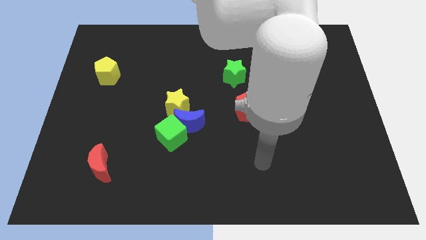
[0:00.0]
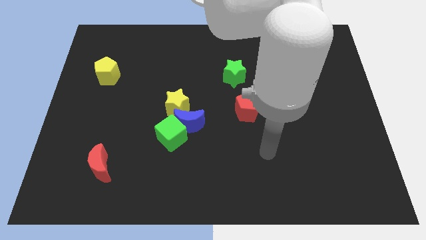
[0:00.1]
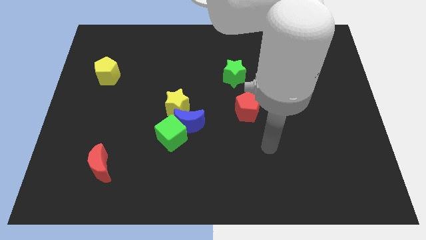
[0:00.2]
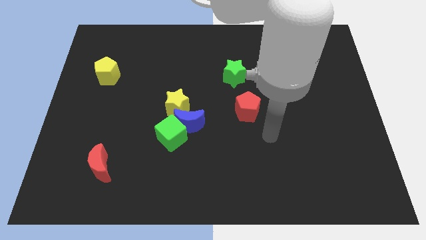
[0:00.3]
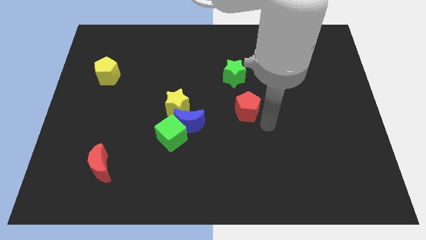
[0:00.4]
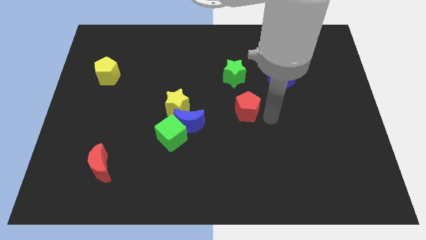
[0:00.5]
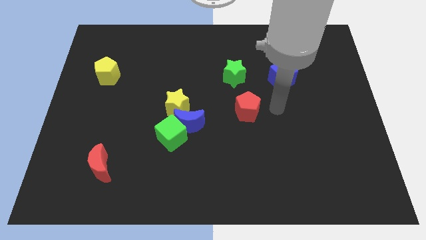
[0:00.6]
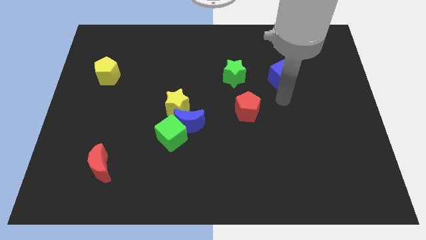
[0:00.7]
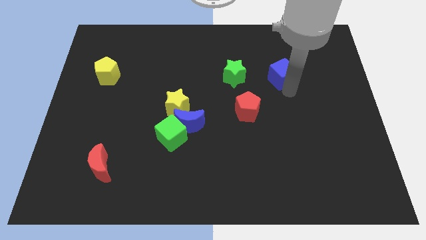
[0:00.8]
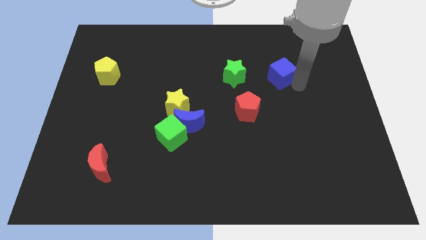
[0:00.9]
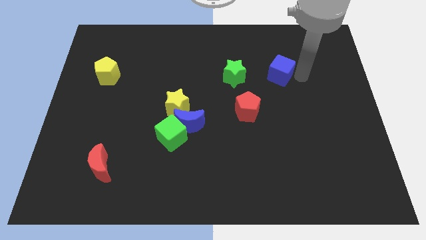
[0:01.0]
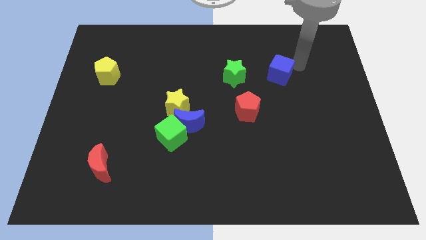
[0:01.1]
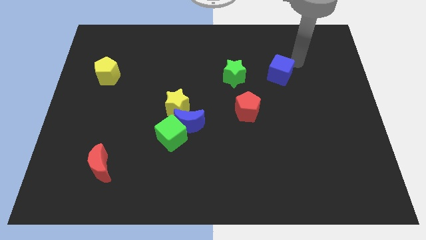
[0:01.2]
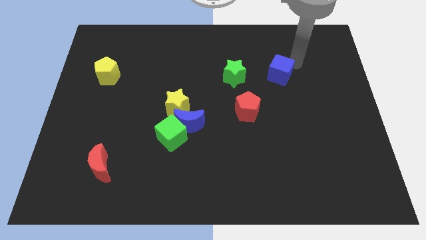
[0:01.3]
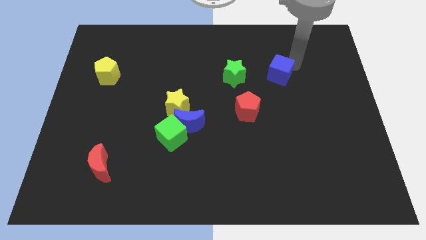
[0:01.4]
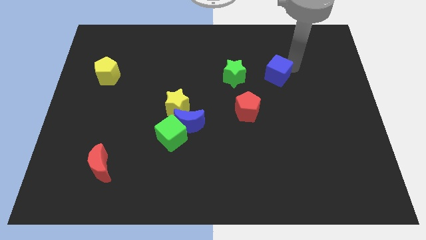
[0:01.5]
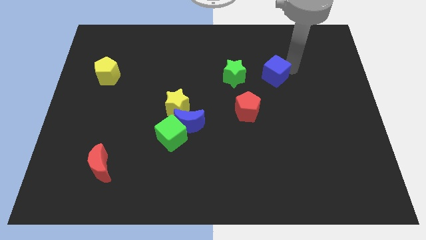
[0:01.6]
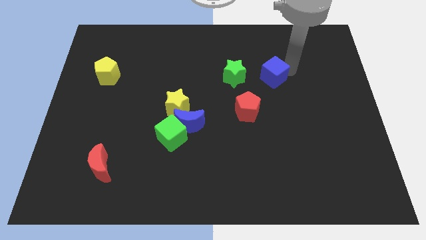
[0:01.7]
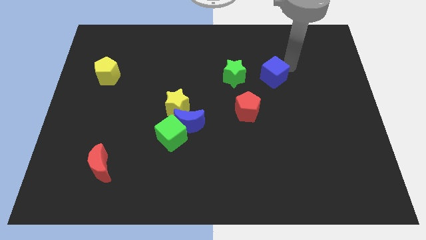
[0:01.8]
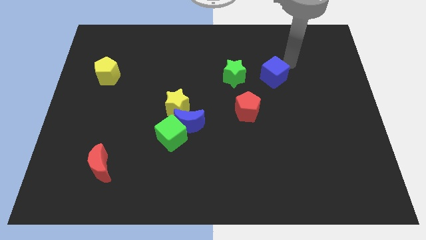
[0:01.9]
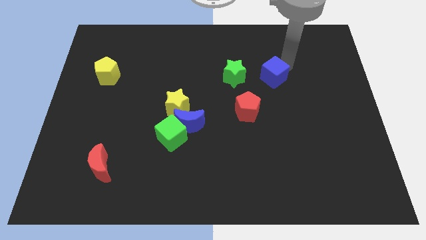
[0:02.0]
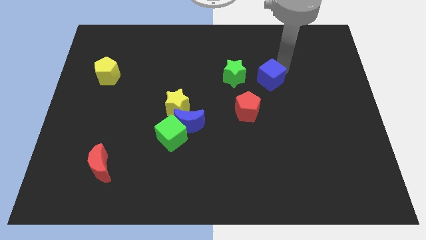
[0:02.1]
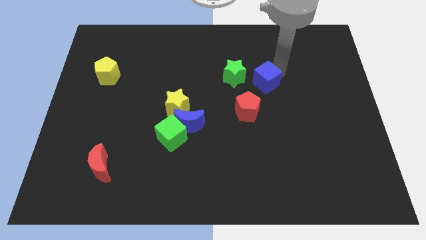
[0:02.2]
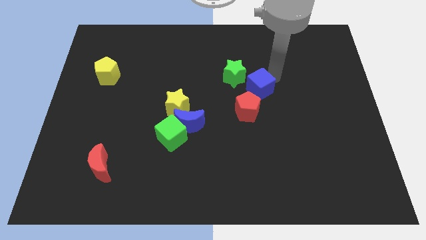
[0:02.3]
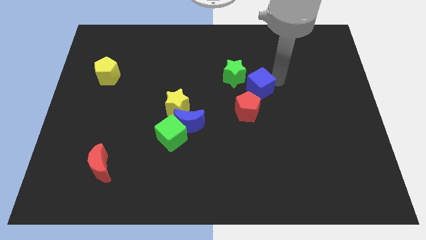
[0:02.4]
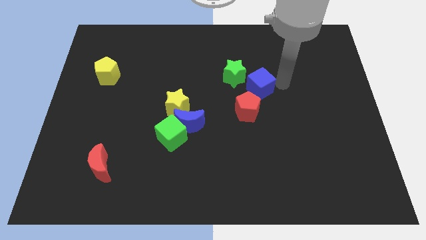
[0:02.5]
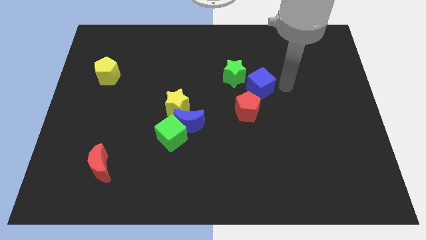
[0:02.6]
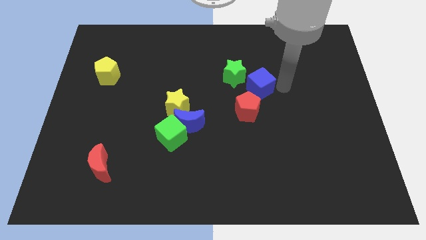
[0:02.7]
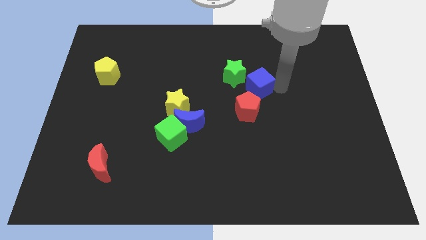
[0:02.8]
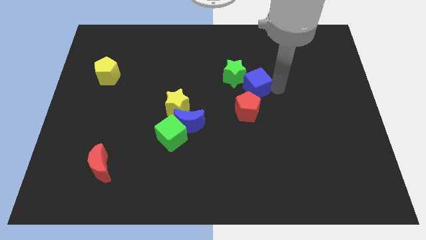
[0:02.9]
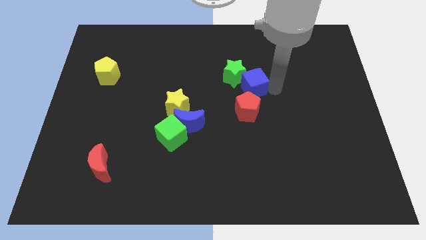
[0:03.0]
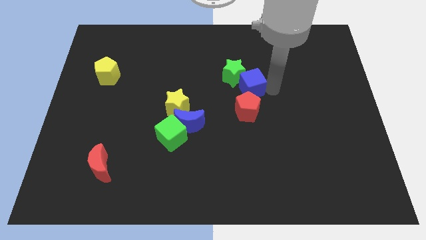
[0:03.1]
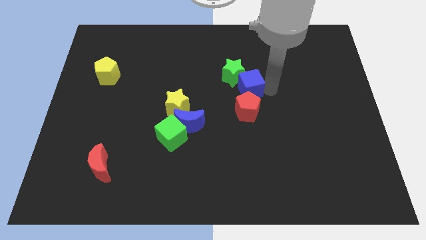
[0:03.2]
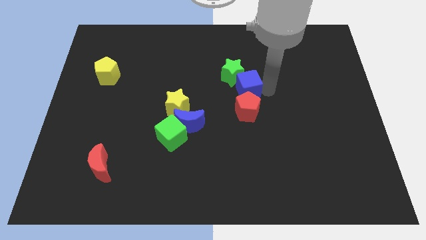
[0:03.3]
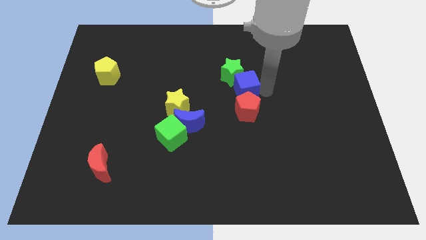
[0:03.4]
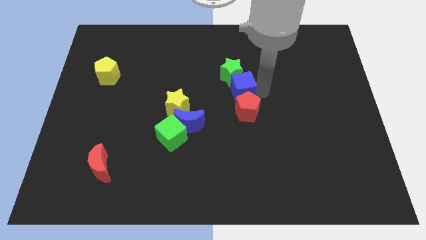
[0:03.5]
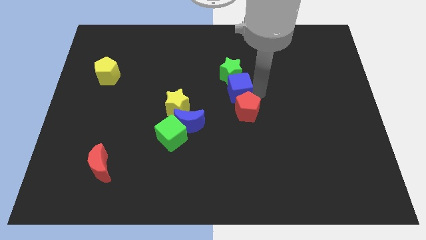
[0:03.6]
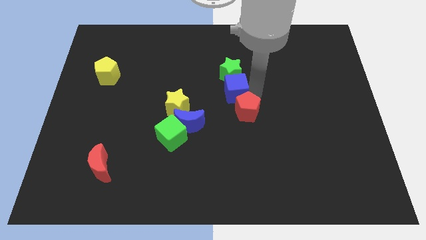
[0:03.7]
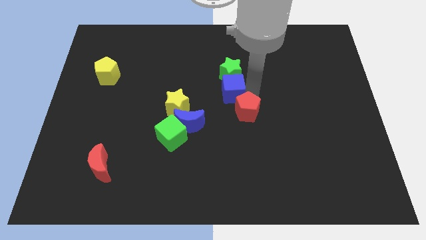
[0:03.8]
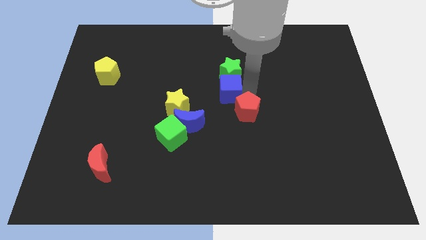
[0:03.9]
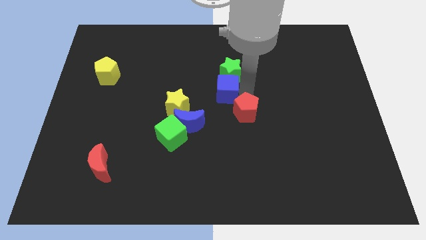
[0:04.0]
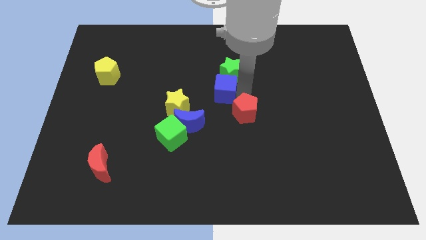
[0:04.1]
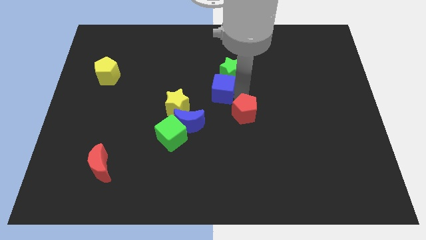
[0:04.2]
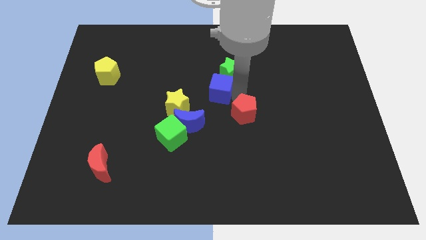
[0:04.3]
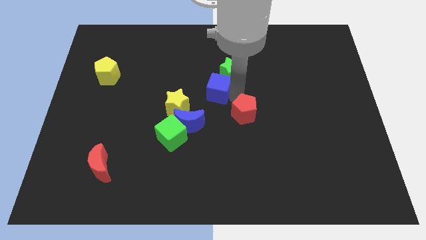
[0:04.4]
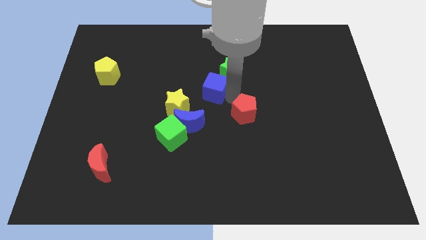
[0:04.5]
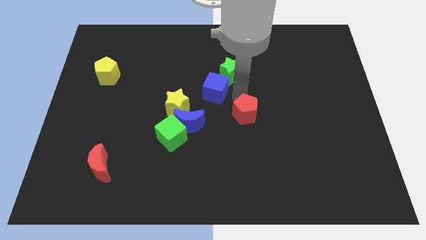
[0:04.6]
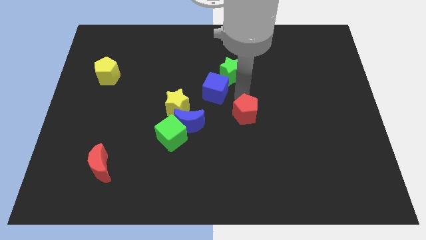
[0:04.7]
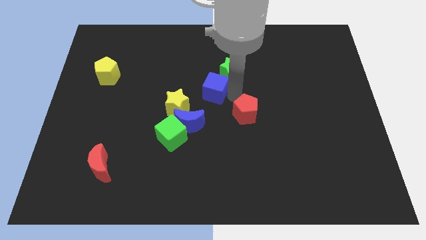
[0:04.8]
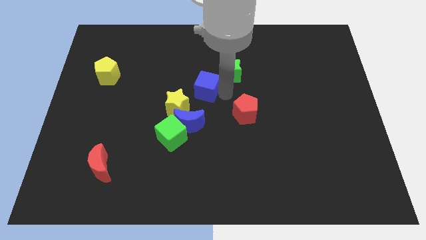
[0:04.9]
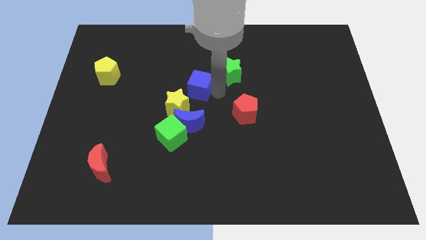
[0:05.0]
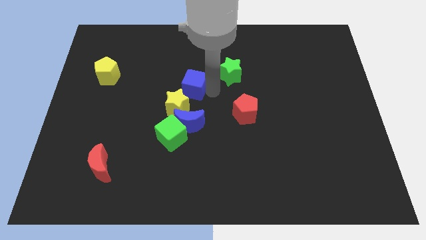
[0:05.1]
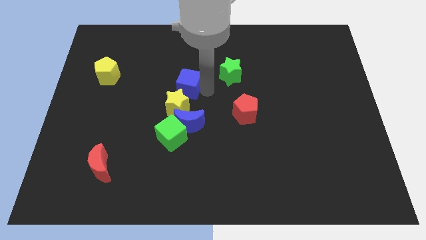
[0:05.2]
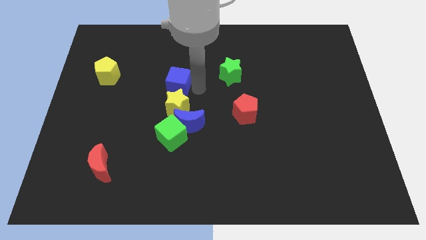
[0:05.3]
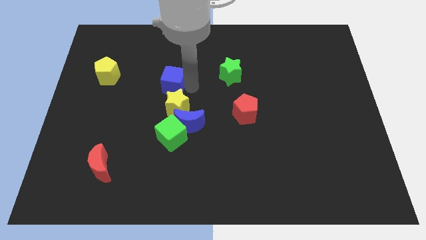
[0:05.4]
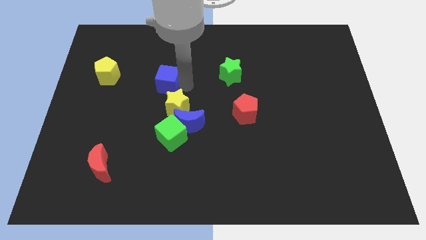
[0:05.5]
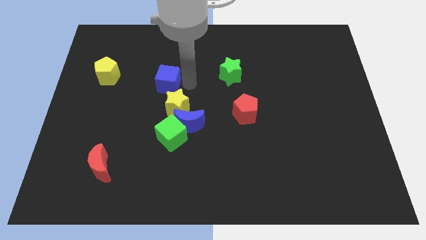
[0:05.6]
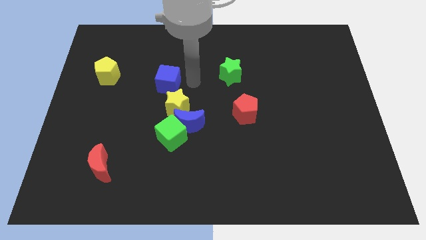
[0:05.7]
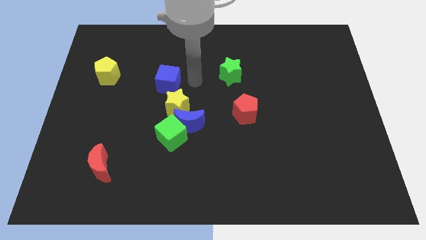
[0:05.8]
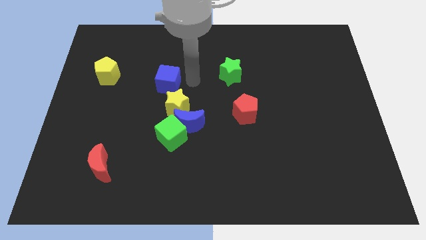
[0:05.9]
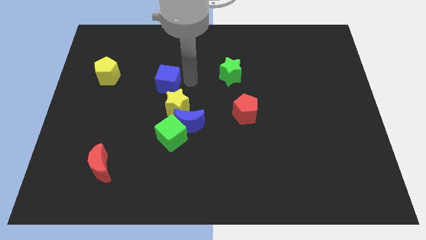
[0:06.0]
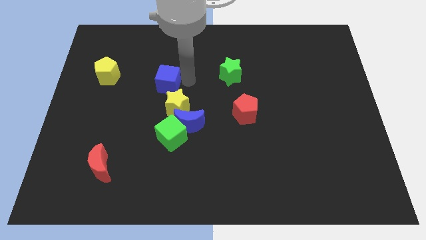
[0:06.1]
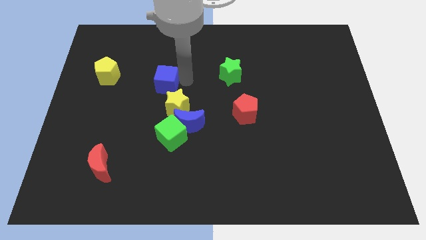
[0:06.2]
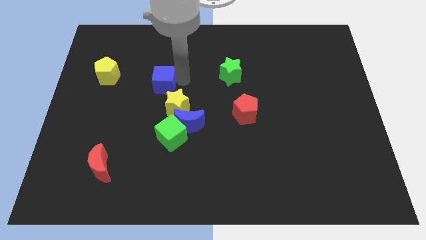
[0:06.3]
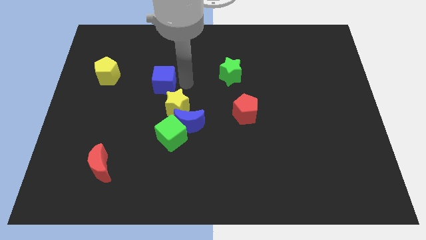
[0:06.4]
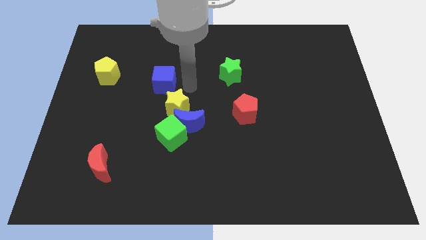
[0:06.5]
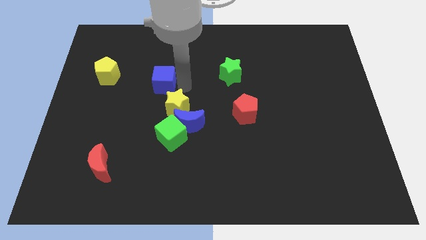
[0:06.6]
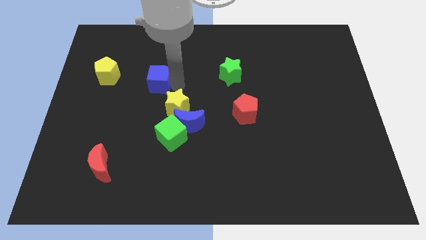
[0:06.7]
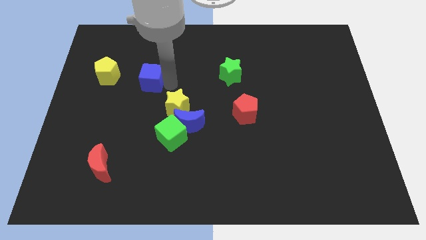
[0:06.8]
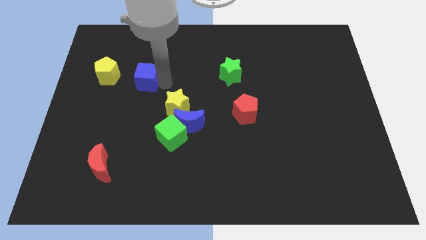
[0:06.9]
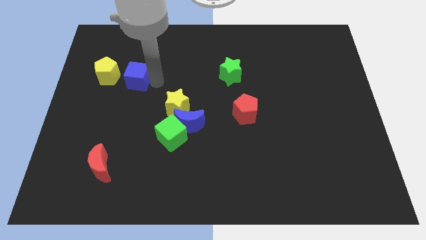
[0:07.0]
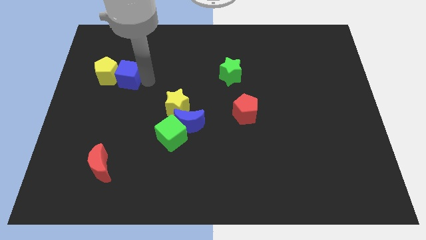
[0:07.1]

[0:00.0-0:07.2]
slide the blue cube to the yellow pentagon
